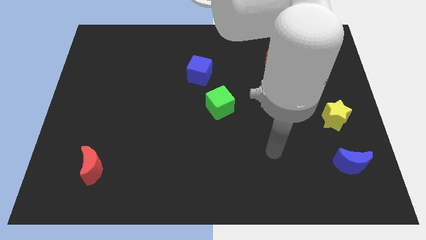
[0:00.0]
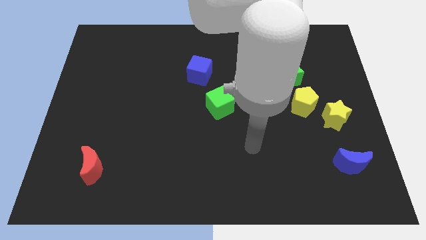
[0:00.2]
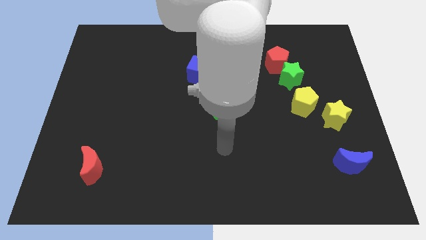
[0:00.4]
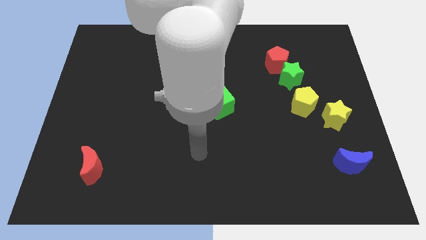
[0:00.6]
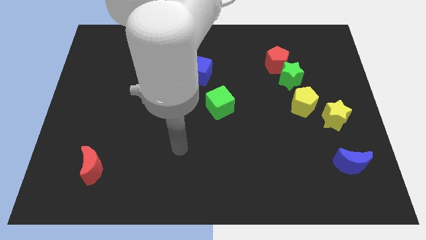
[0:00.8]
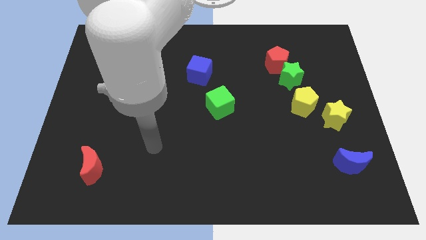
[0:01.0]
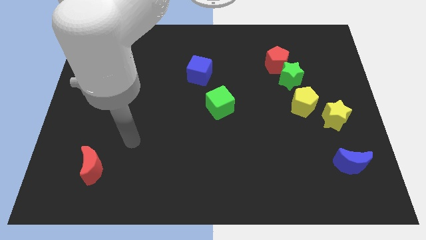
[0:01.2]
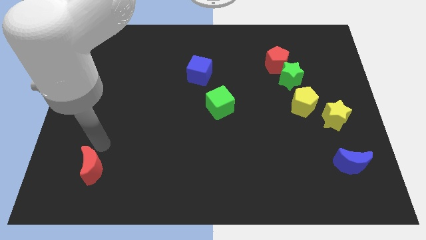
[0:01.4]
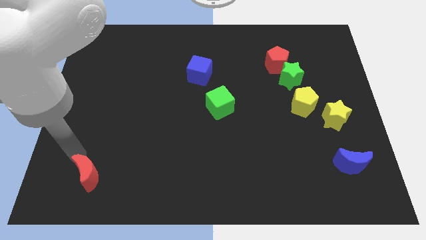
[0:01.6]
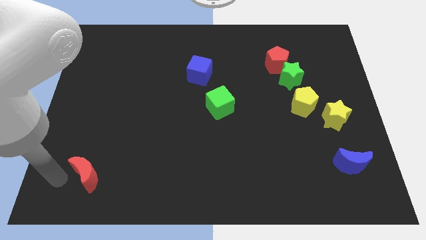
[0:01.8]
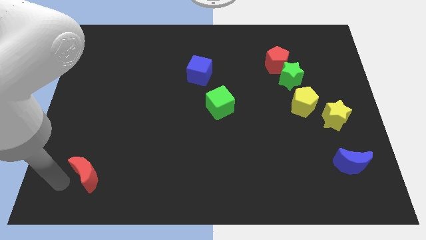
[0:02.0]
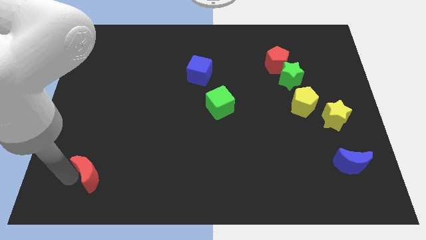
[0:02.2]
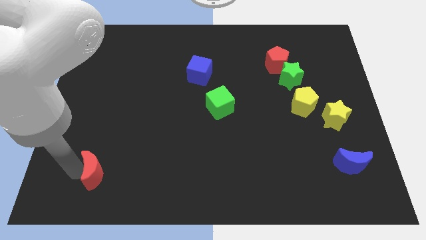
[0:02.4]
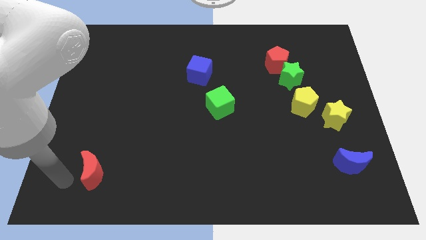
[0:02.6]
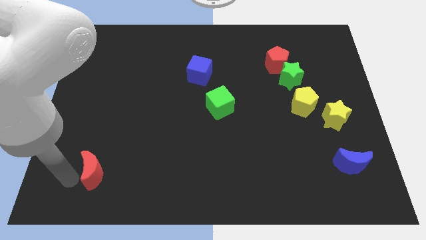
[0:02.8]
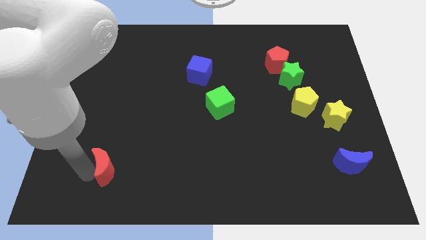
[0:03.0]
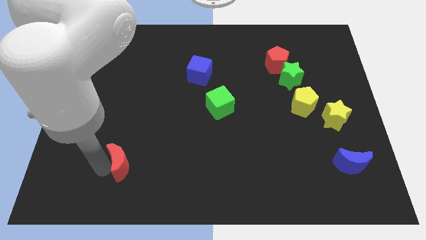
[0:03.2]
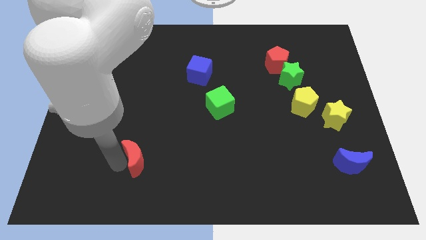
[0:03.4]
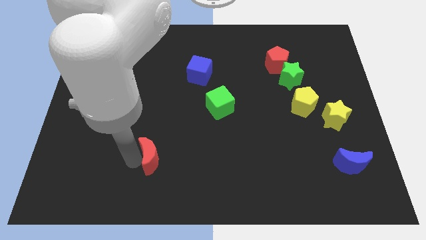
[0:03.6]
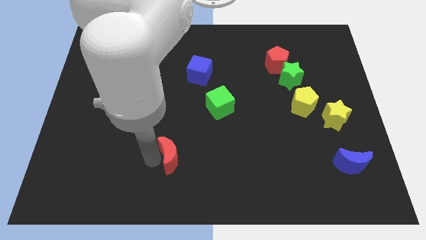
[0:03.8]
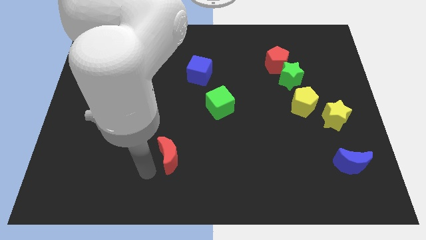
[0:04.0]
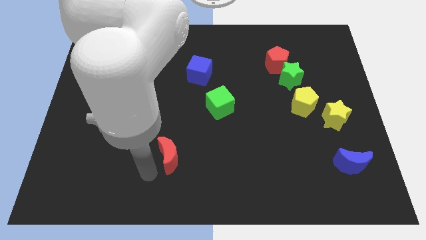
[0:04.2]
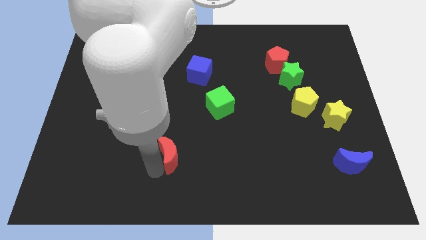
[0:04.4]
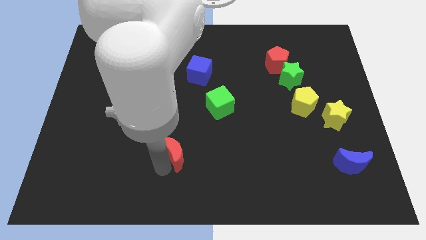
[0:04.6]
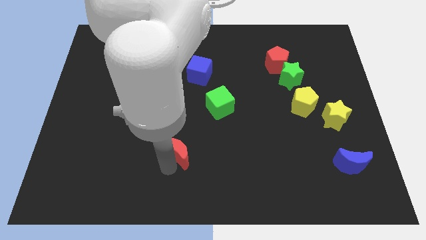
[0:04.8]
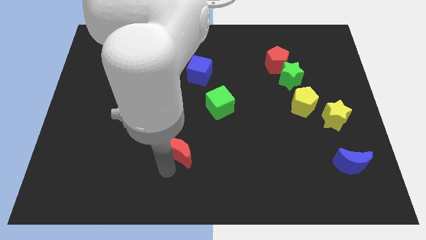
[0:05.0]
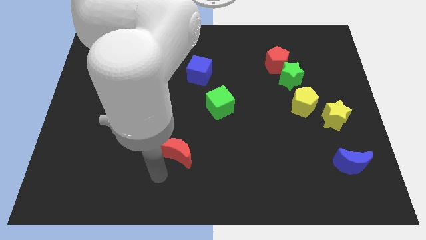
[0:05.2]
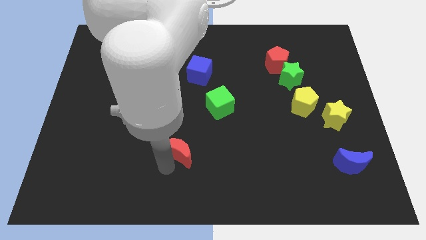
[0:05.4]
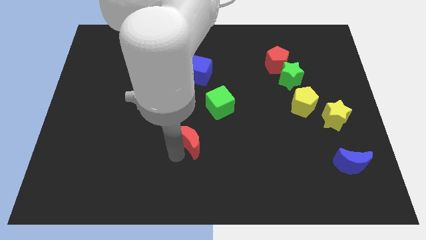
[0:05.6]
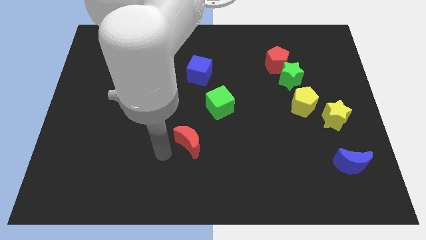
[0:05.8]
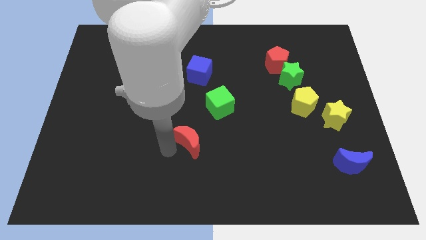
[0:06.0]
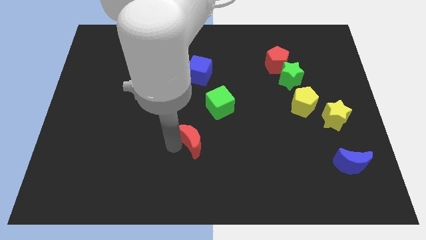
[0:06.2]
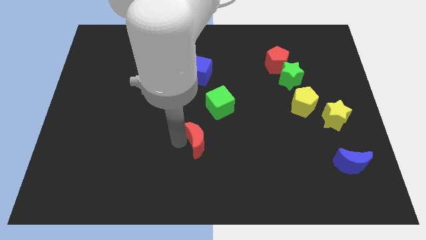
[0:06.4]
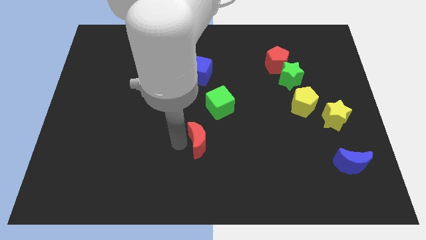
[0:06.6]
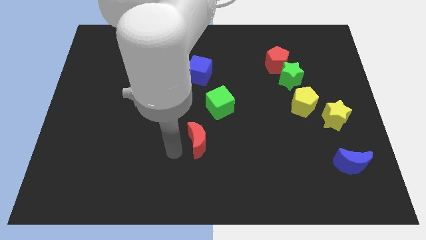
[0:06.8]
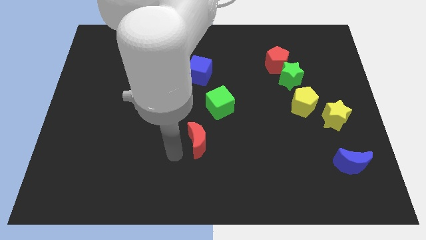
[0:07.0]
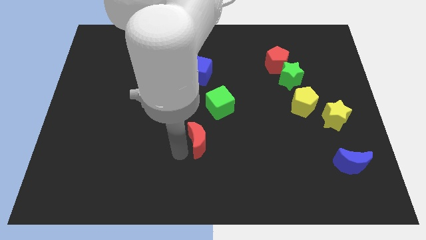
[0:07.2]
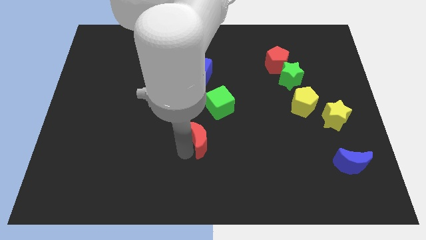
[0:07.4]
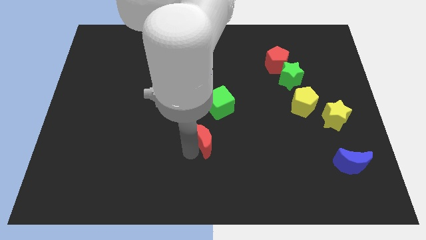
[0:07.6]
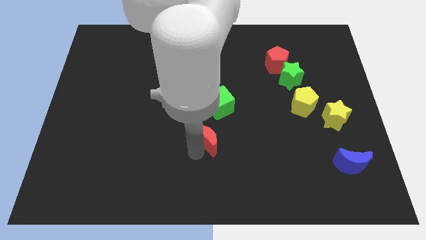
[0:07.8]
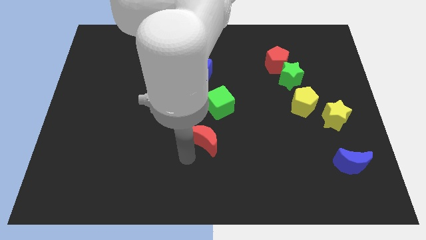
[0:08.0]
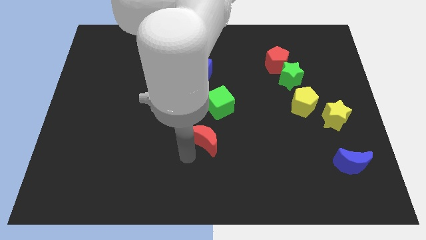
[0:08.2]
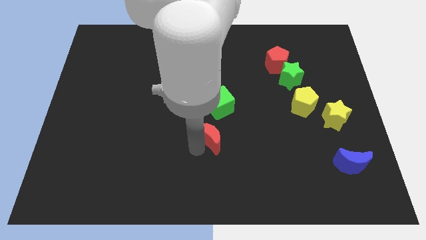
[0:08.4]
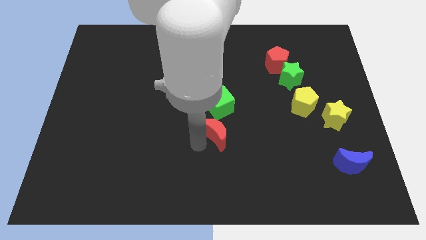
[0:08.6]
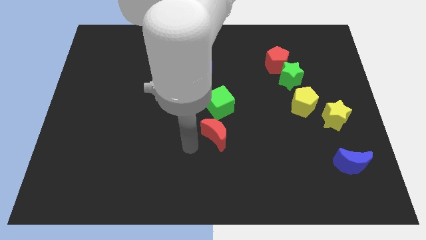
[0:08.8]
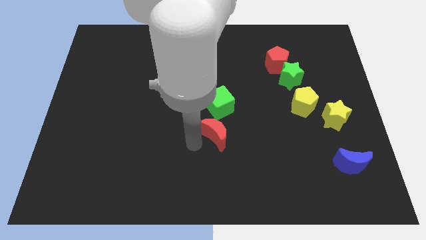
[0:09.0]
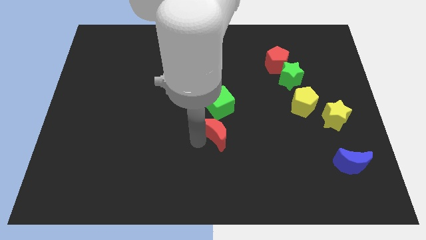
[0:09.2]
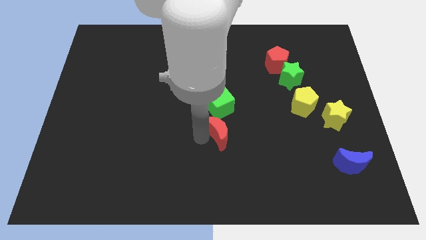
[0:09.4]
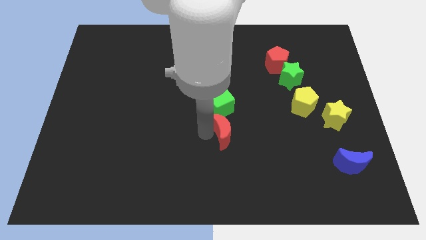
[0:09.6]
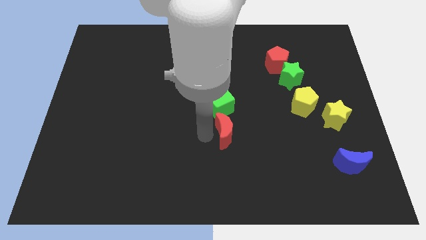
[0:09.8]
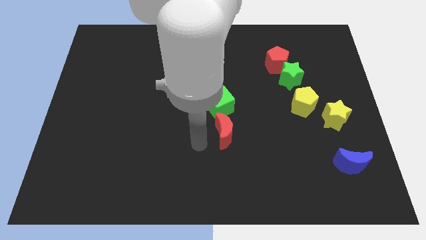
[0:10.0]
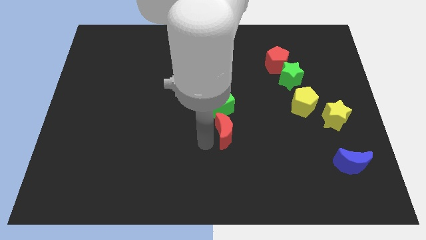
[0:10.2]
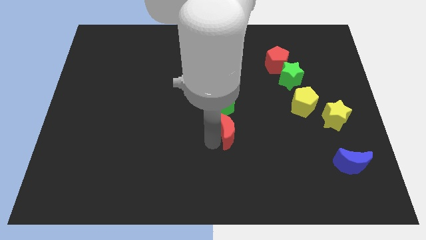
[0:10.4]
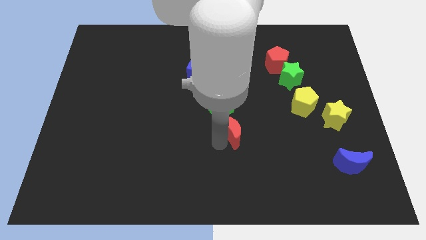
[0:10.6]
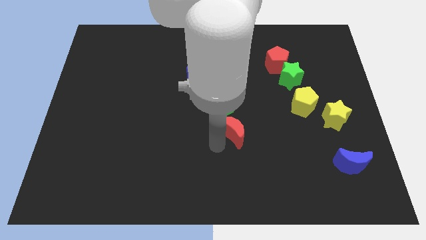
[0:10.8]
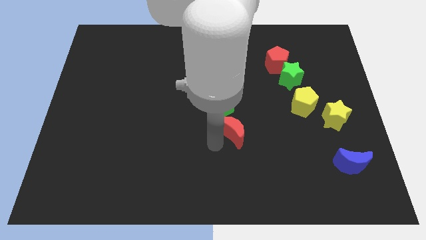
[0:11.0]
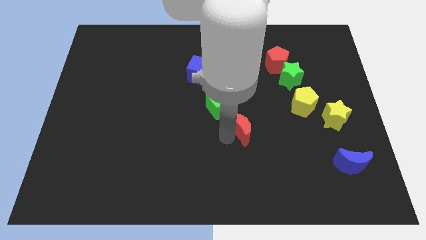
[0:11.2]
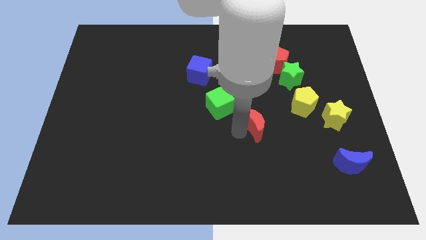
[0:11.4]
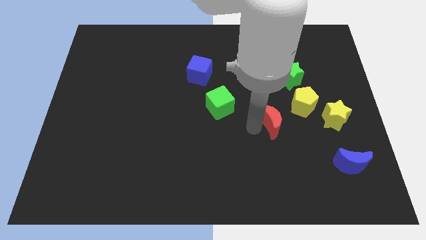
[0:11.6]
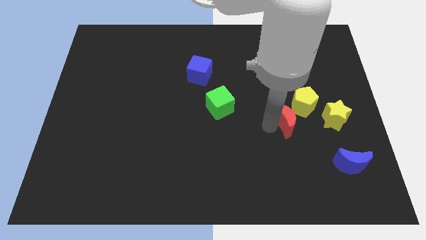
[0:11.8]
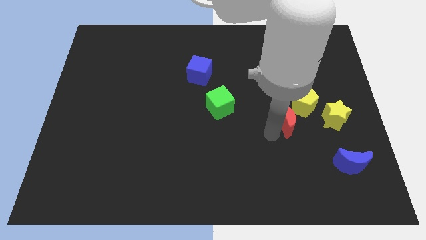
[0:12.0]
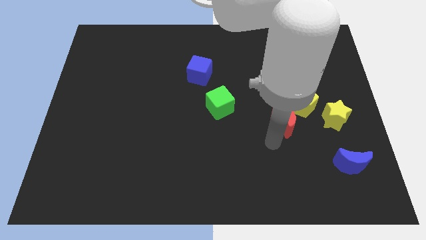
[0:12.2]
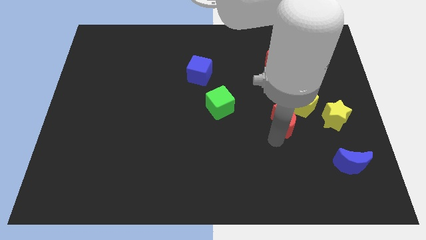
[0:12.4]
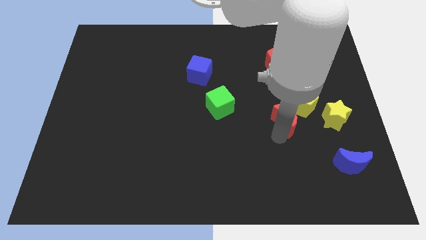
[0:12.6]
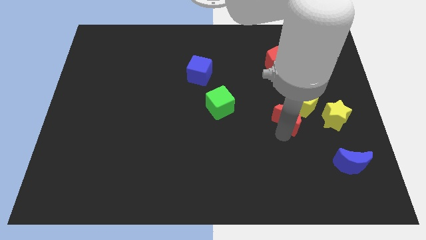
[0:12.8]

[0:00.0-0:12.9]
slide the red moon close to the yellow pentagon
